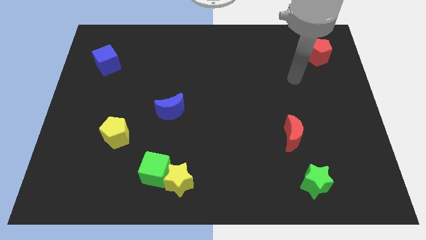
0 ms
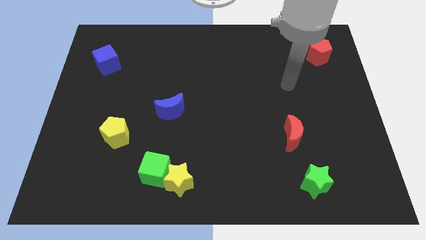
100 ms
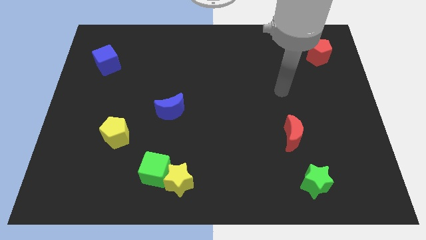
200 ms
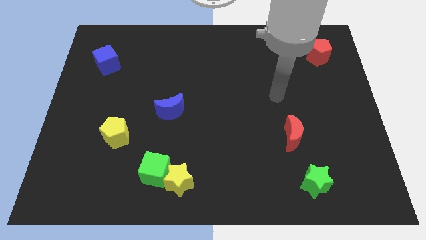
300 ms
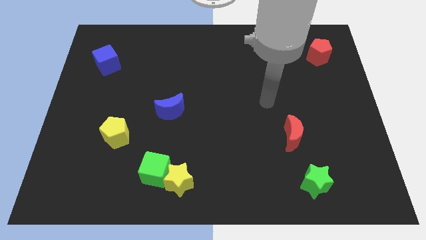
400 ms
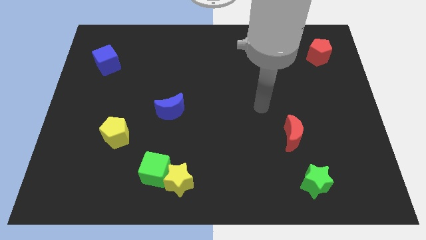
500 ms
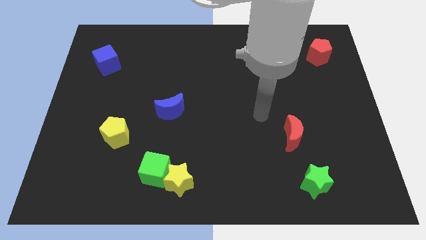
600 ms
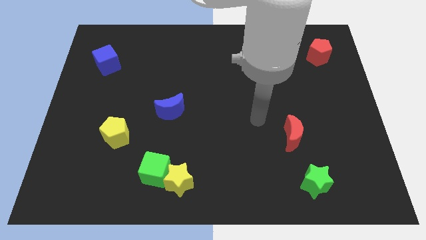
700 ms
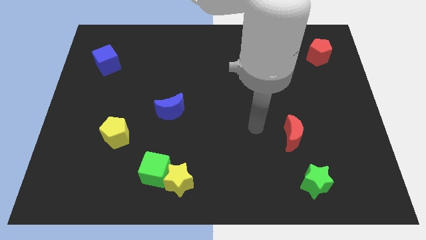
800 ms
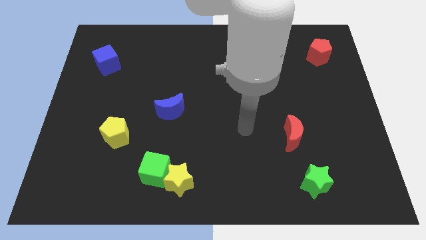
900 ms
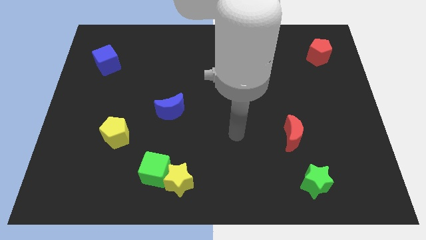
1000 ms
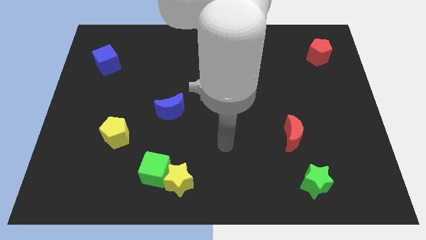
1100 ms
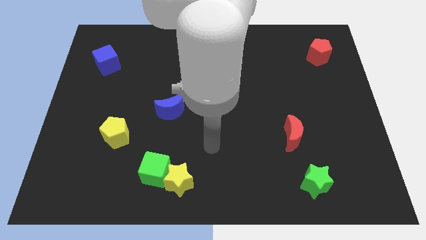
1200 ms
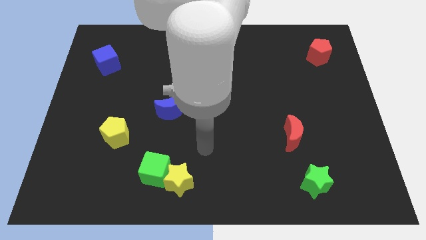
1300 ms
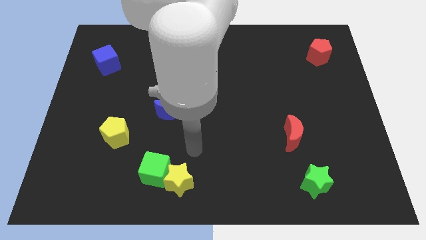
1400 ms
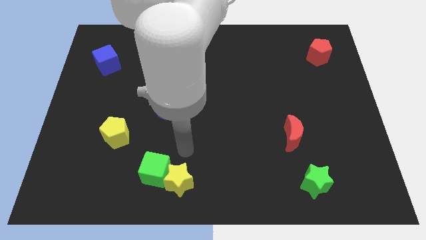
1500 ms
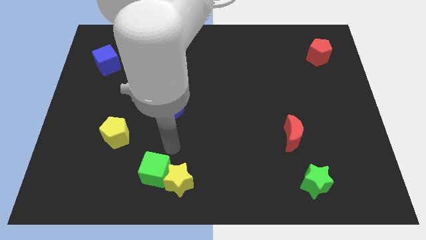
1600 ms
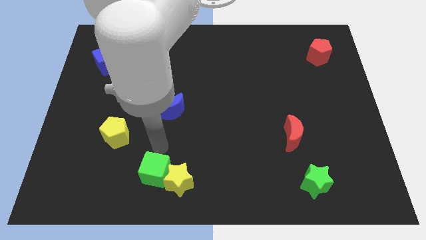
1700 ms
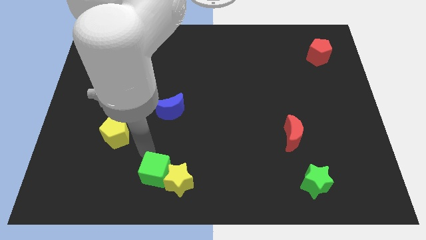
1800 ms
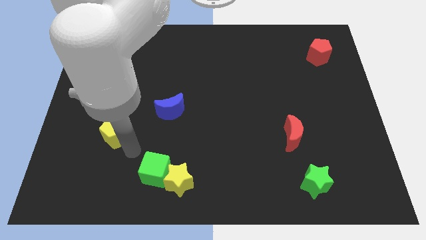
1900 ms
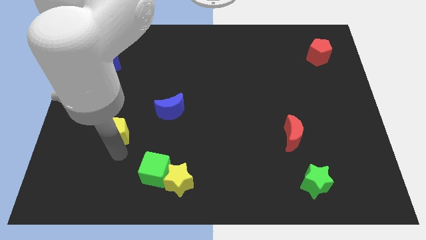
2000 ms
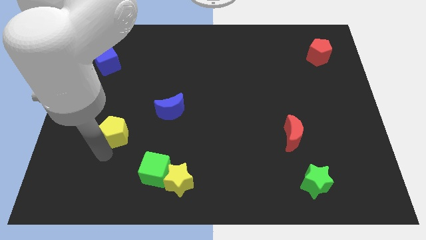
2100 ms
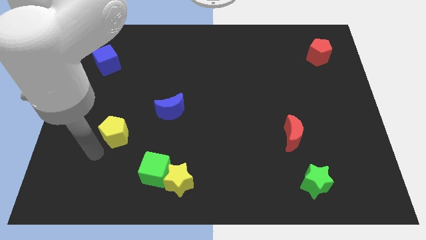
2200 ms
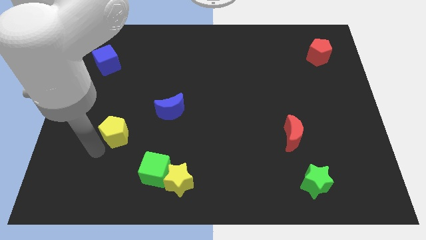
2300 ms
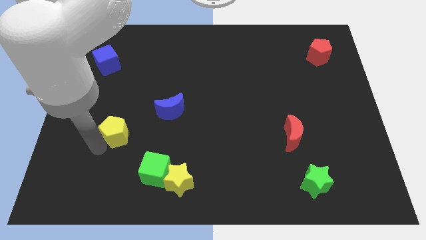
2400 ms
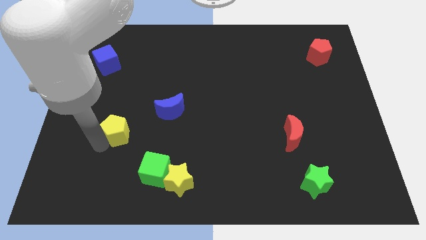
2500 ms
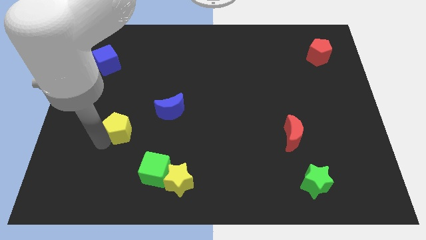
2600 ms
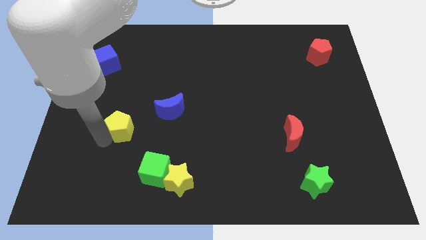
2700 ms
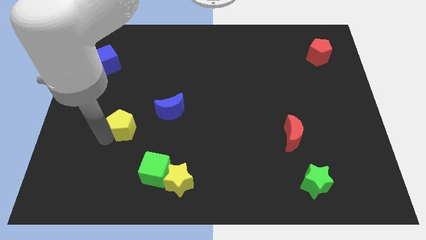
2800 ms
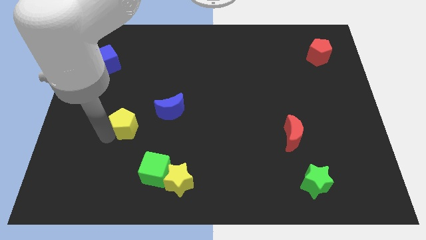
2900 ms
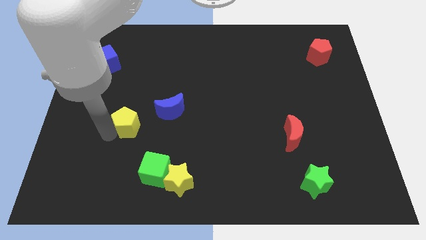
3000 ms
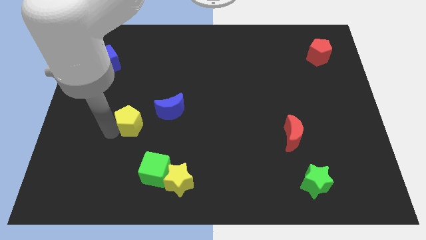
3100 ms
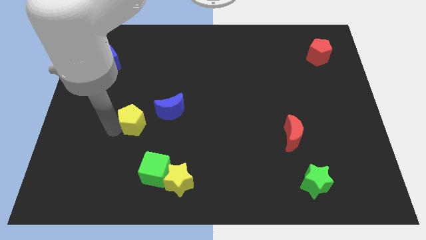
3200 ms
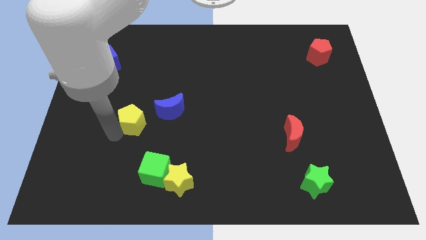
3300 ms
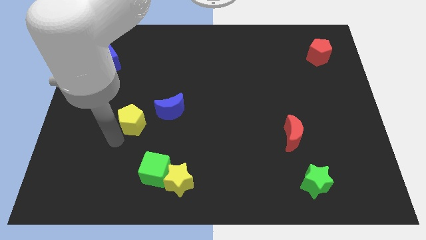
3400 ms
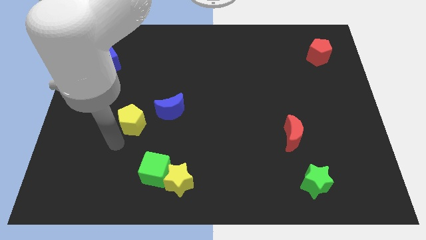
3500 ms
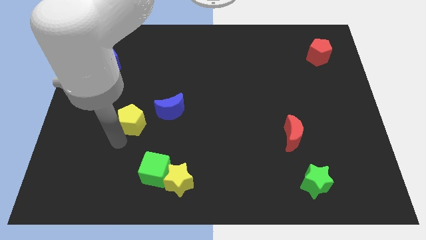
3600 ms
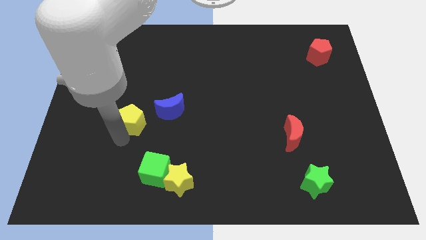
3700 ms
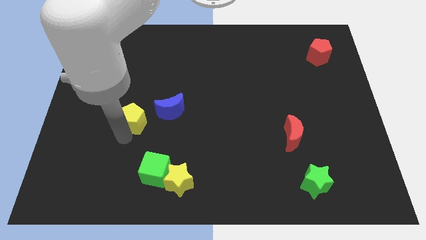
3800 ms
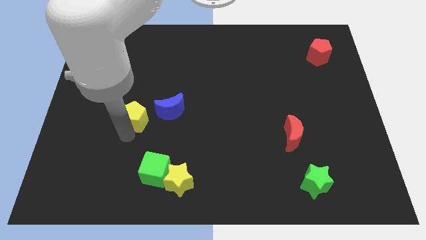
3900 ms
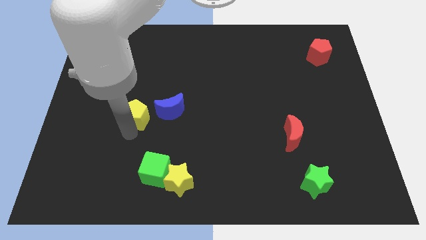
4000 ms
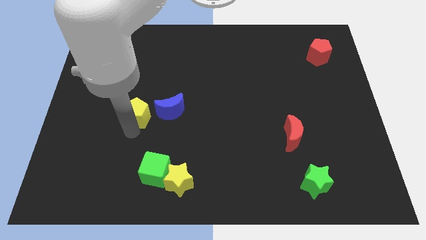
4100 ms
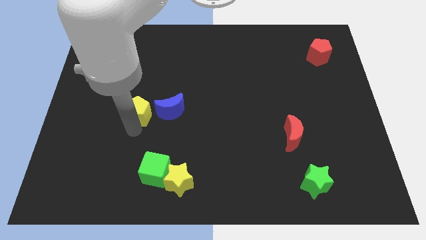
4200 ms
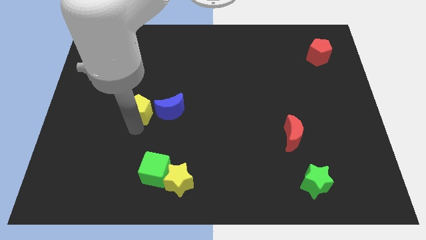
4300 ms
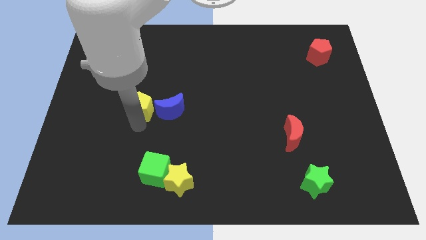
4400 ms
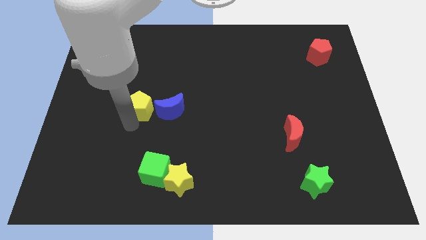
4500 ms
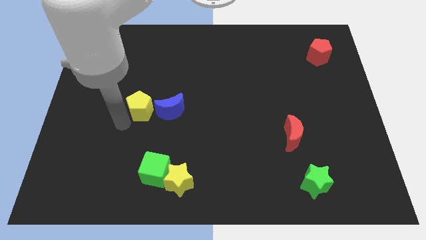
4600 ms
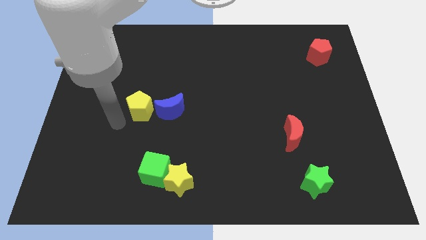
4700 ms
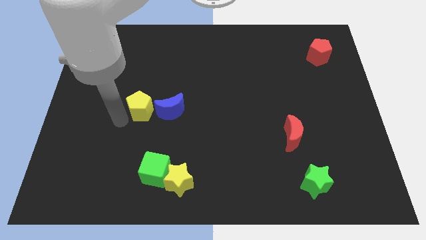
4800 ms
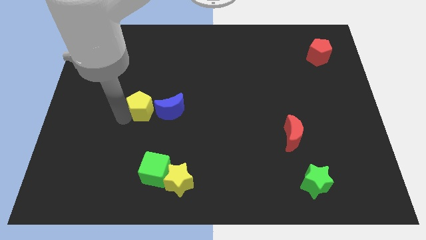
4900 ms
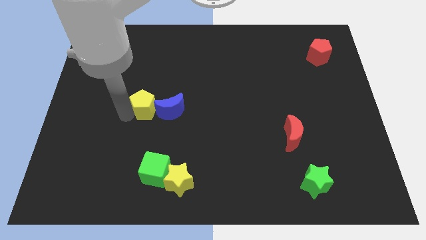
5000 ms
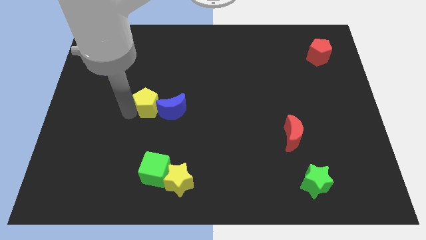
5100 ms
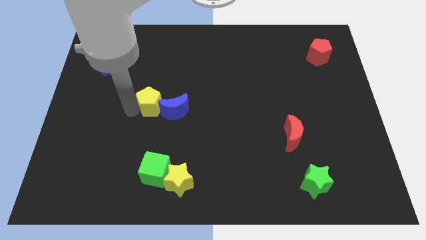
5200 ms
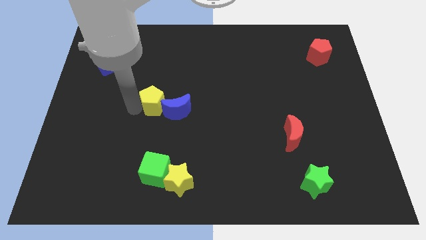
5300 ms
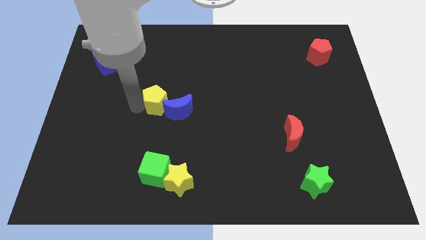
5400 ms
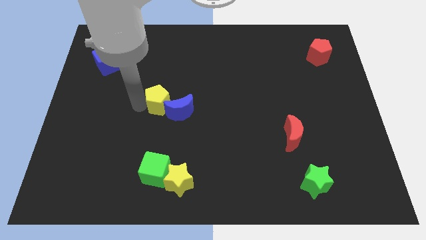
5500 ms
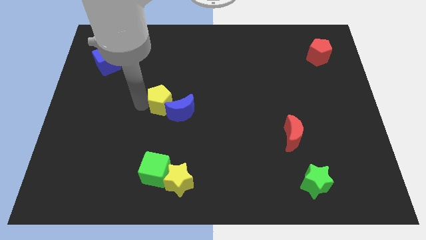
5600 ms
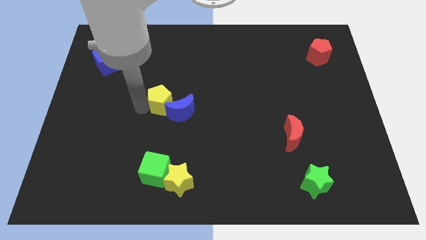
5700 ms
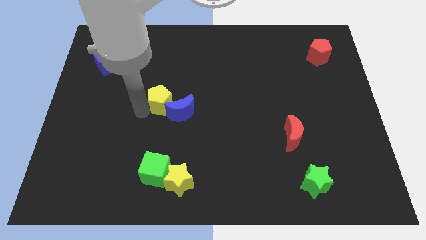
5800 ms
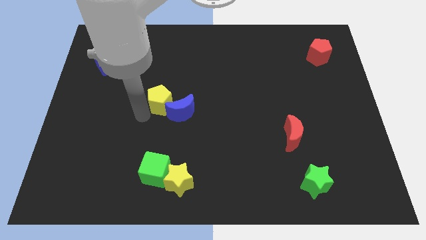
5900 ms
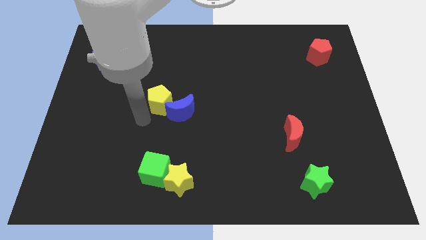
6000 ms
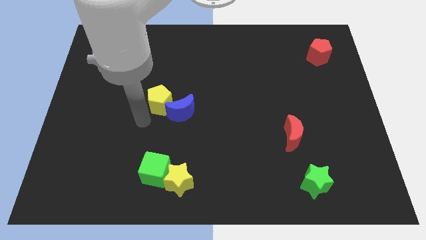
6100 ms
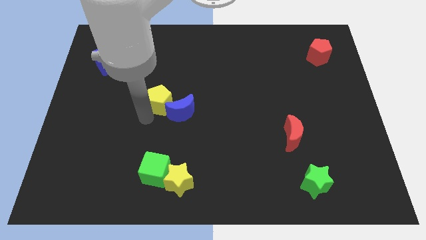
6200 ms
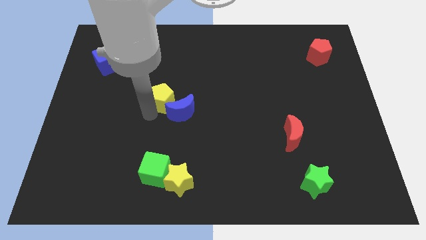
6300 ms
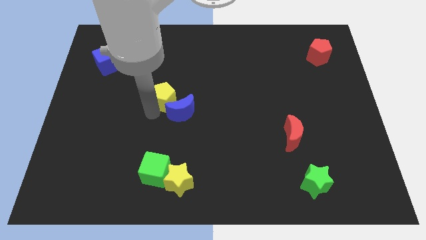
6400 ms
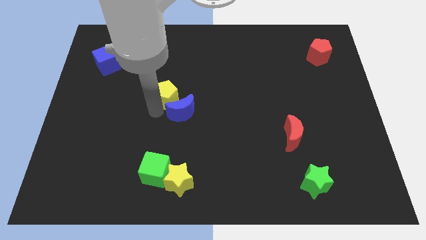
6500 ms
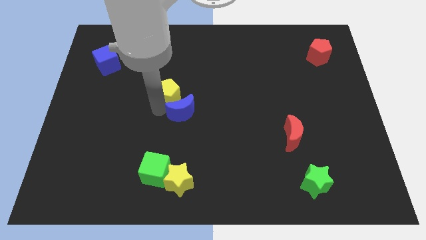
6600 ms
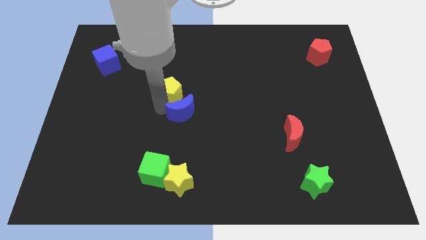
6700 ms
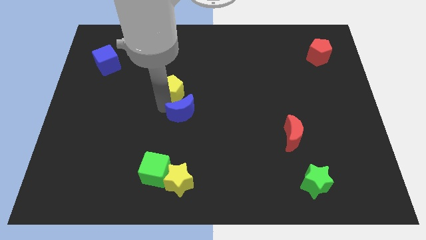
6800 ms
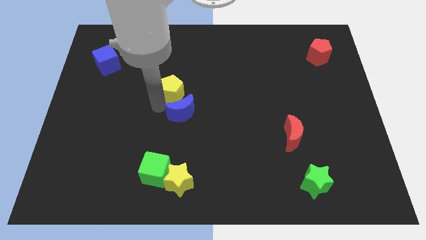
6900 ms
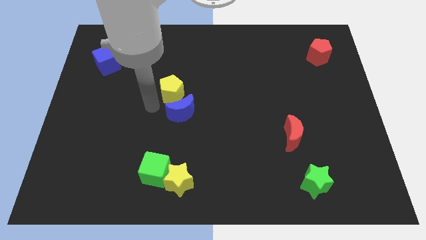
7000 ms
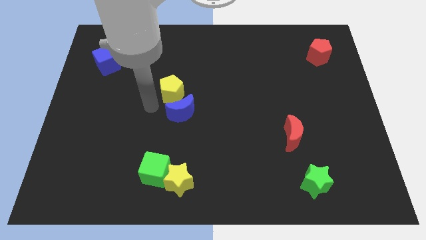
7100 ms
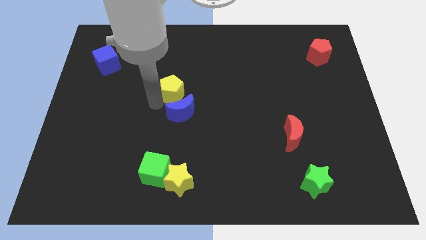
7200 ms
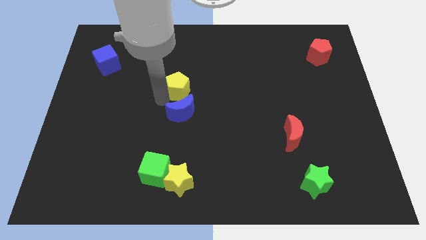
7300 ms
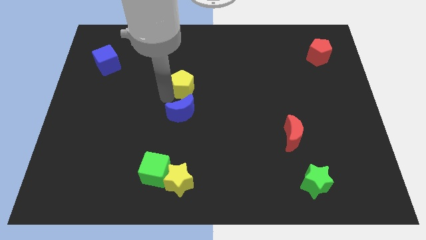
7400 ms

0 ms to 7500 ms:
slide the yellow pentagon up and right

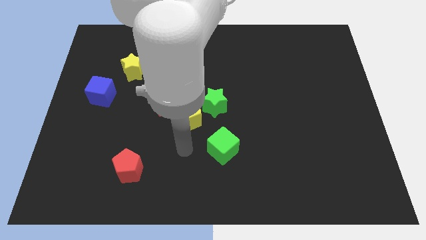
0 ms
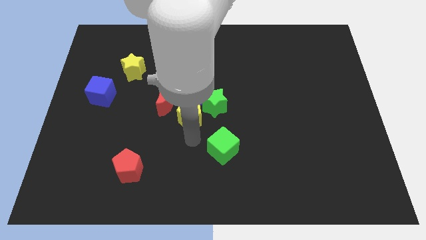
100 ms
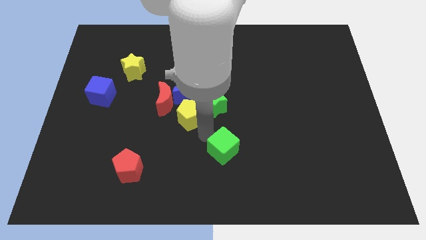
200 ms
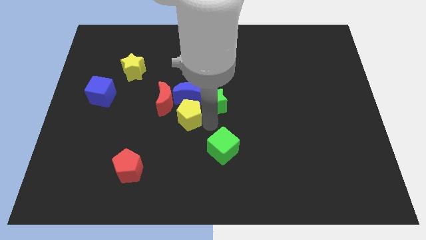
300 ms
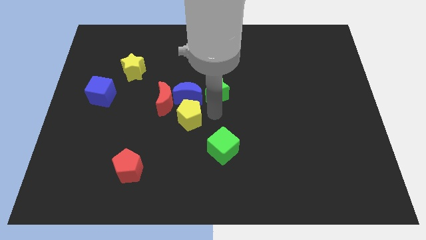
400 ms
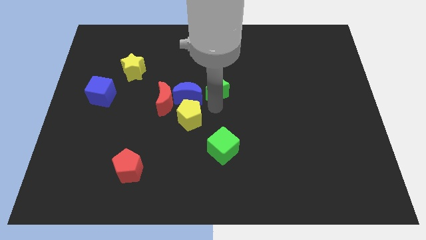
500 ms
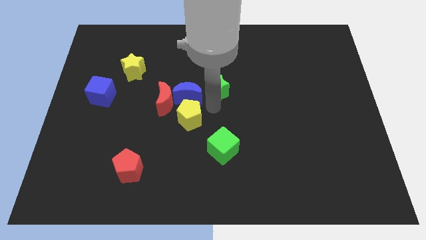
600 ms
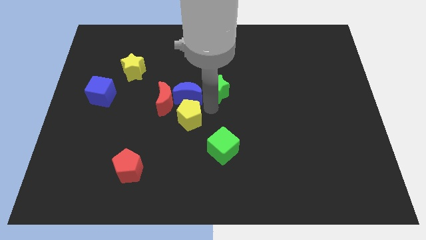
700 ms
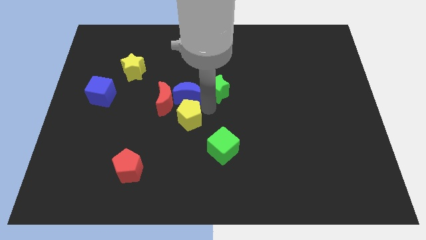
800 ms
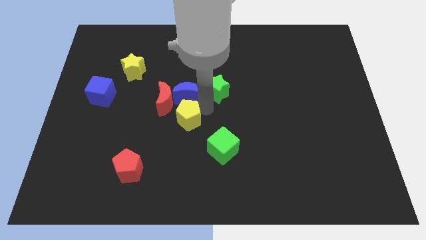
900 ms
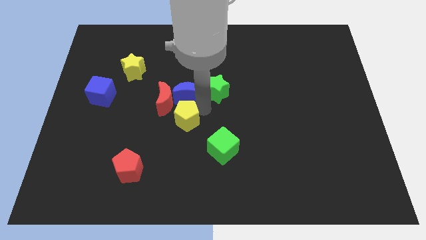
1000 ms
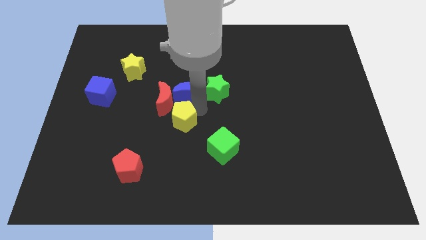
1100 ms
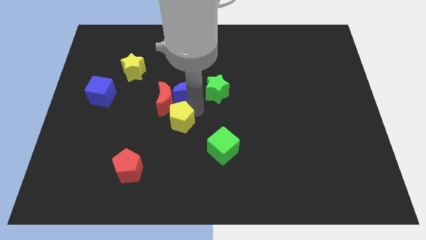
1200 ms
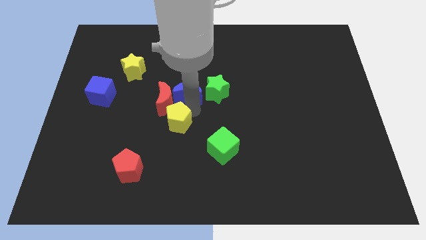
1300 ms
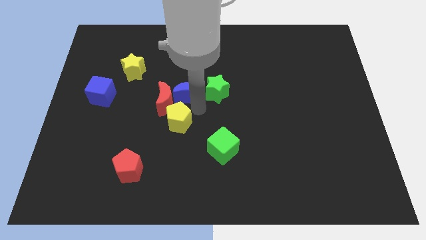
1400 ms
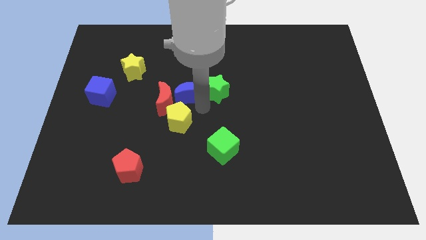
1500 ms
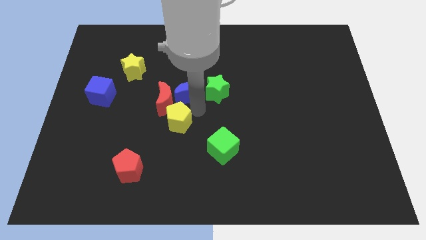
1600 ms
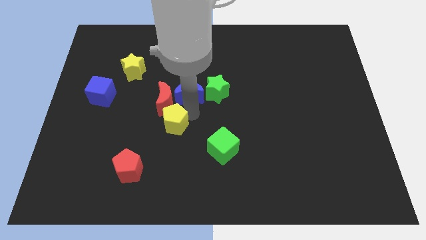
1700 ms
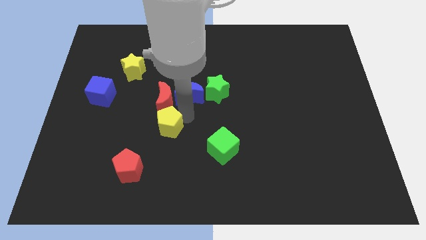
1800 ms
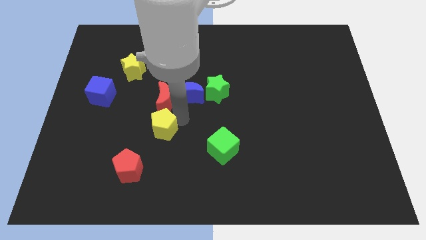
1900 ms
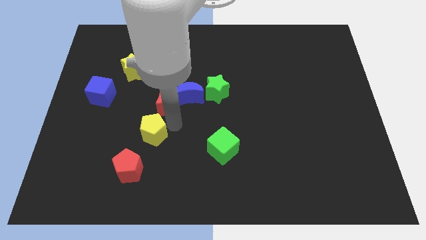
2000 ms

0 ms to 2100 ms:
slightly move the yellow pentagon to the left
